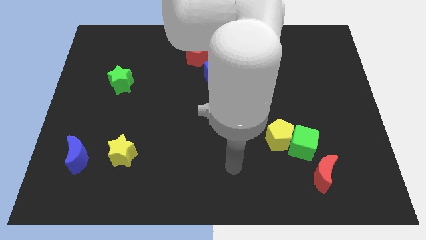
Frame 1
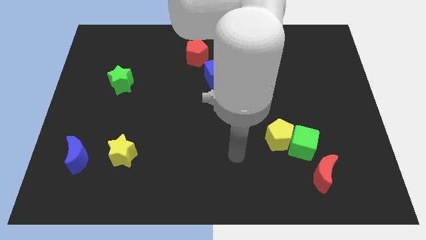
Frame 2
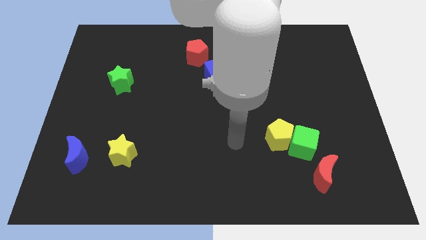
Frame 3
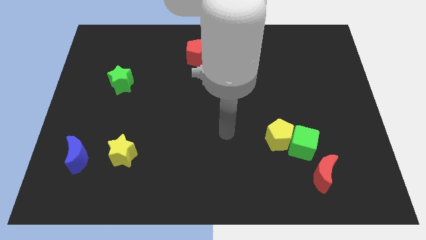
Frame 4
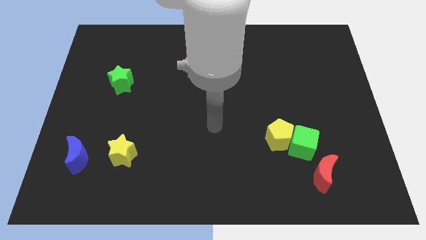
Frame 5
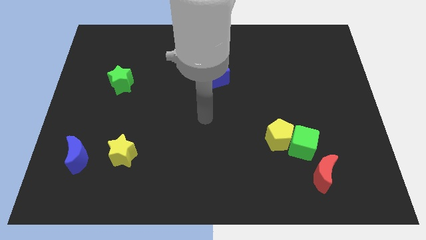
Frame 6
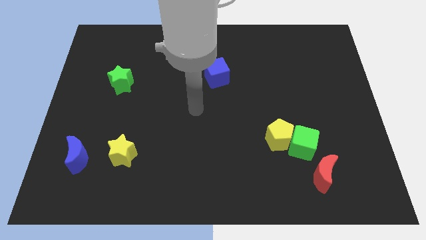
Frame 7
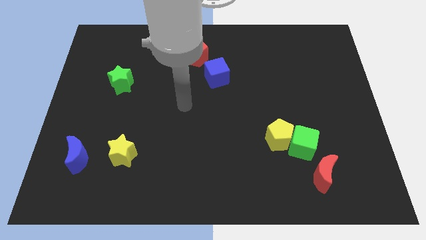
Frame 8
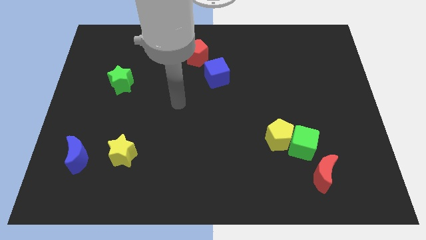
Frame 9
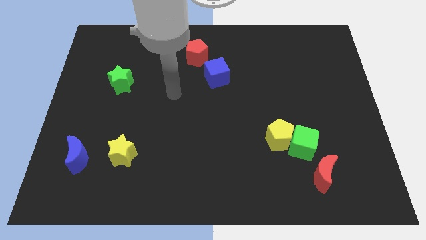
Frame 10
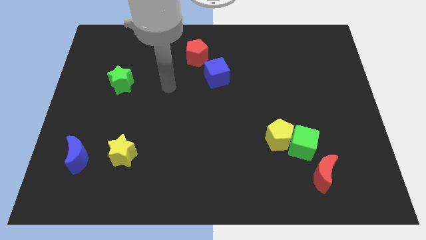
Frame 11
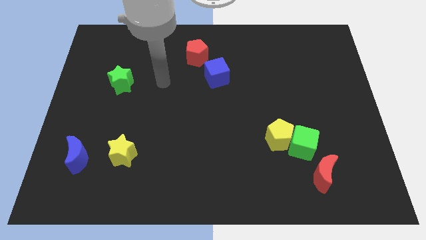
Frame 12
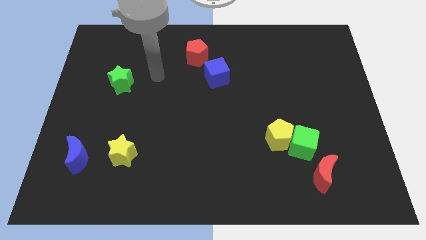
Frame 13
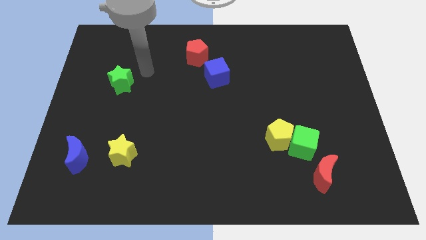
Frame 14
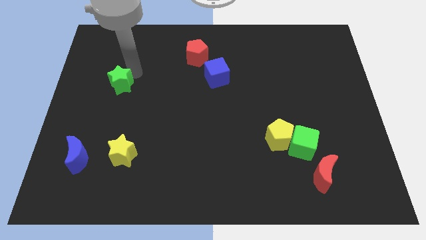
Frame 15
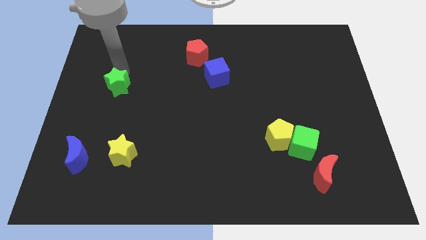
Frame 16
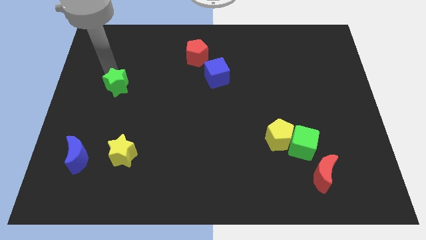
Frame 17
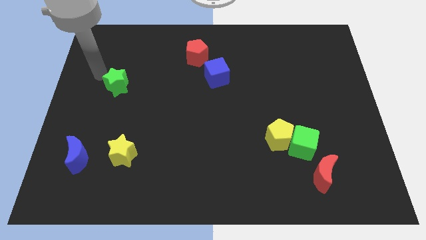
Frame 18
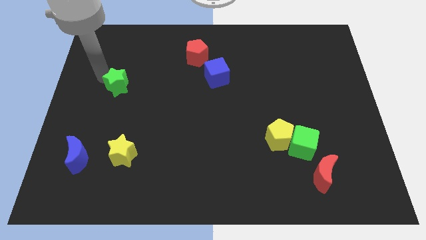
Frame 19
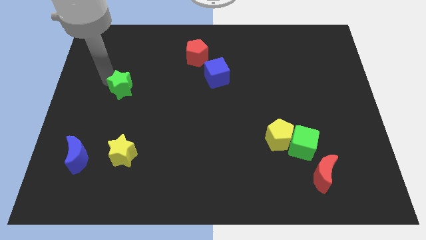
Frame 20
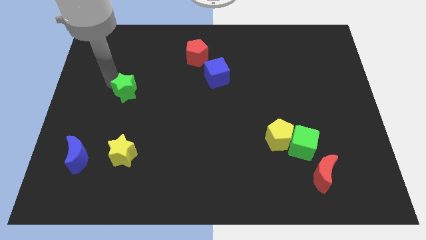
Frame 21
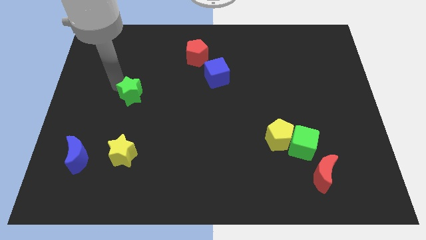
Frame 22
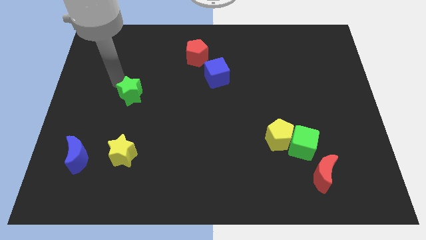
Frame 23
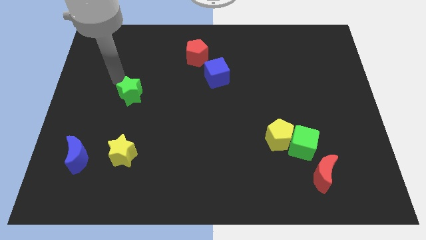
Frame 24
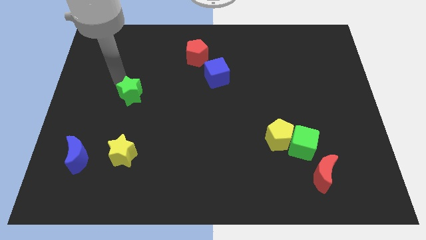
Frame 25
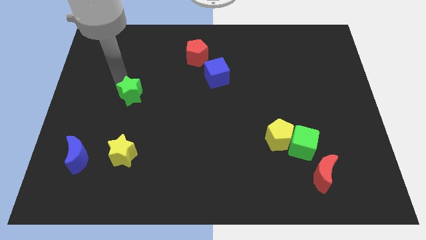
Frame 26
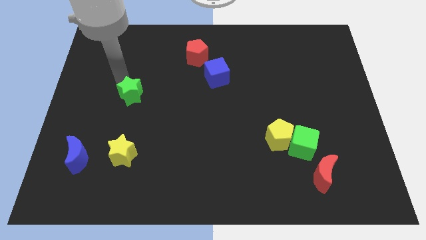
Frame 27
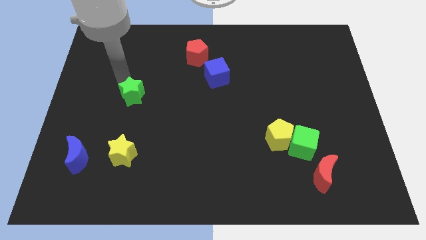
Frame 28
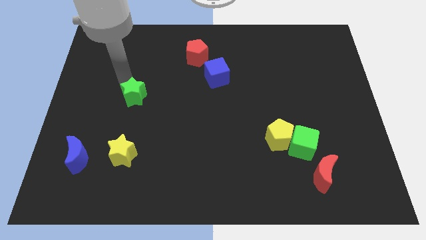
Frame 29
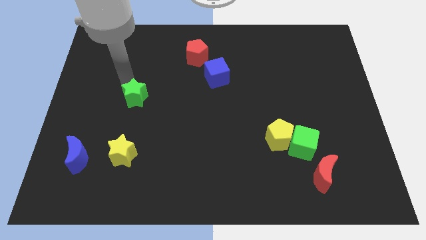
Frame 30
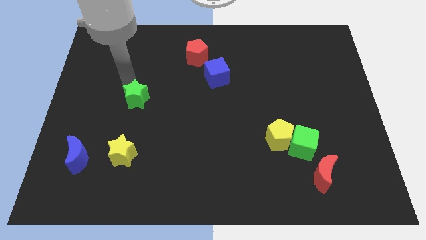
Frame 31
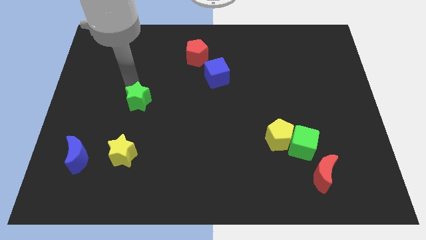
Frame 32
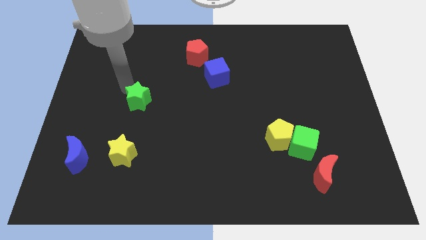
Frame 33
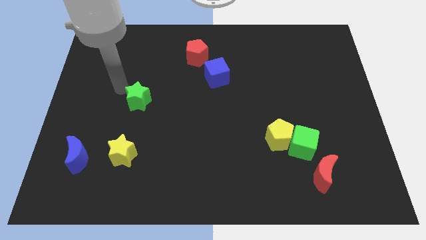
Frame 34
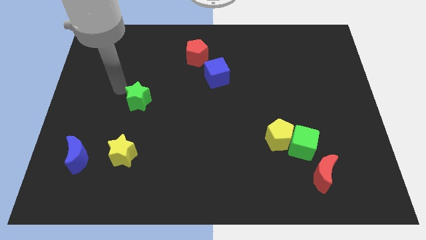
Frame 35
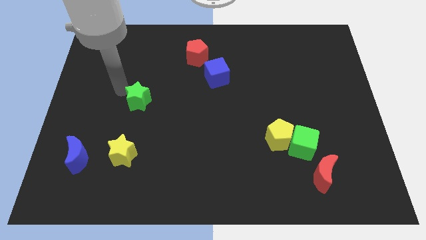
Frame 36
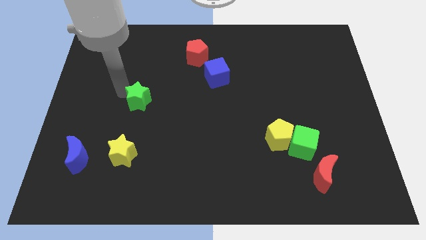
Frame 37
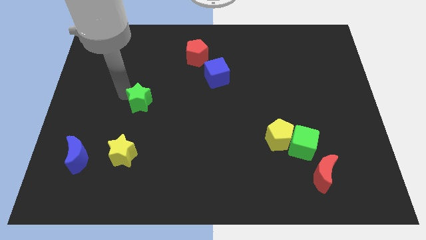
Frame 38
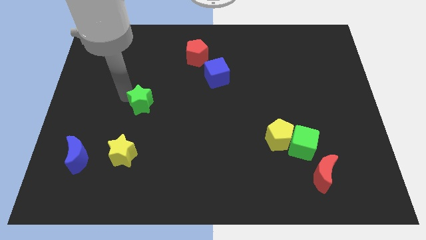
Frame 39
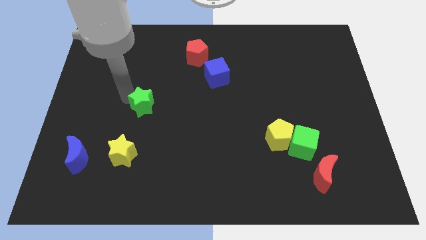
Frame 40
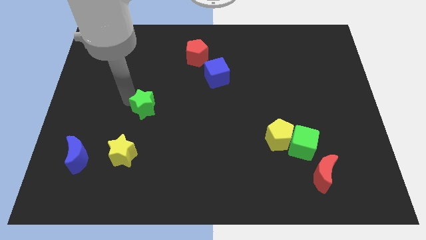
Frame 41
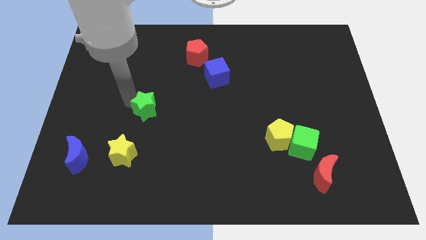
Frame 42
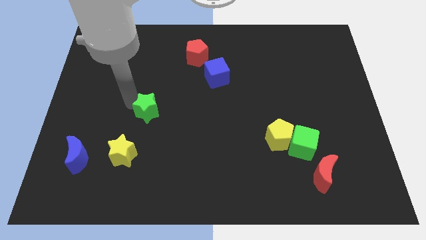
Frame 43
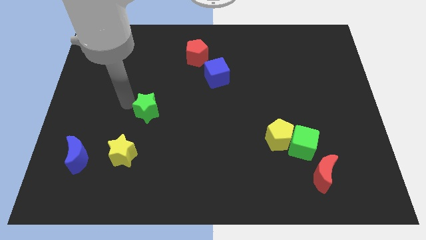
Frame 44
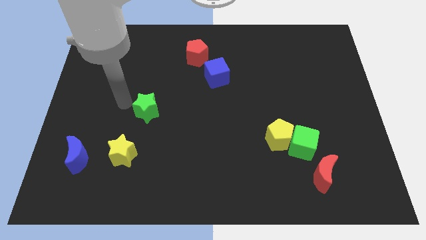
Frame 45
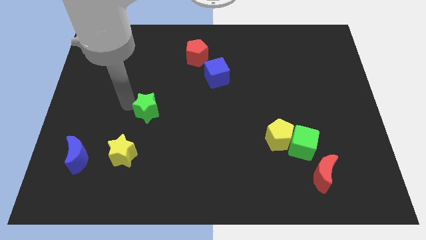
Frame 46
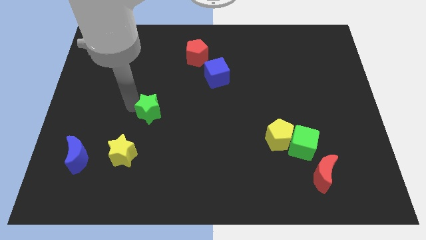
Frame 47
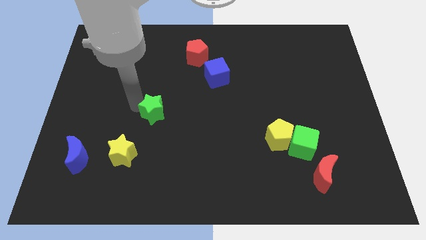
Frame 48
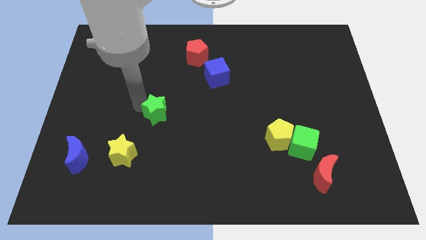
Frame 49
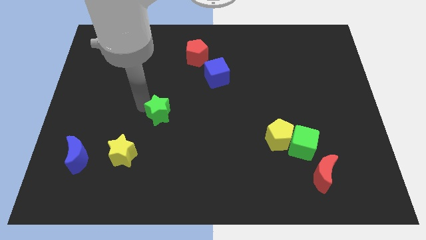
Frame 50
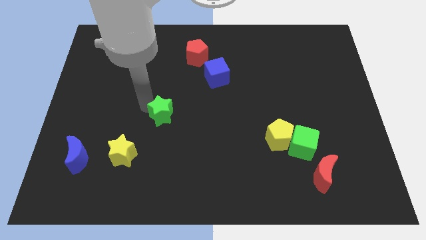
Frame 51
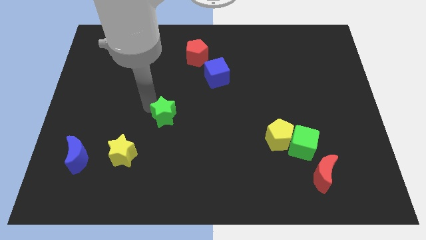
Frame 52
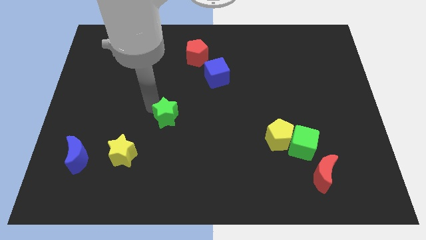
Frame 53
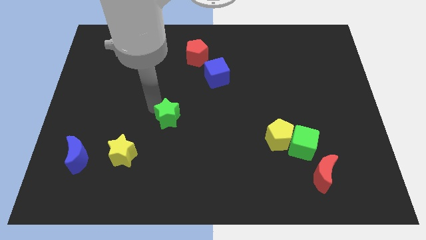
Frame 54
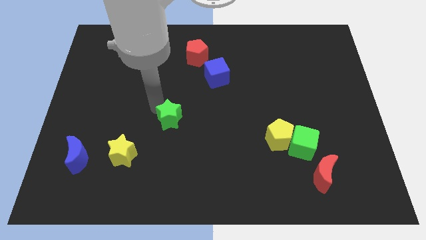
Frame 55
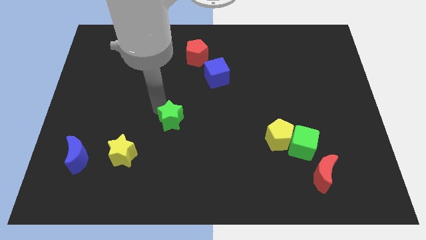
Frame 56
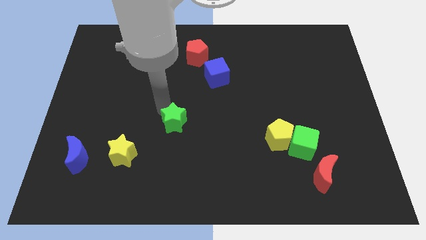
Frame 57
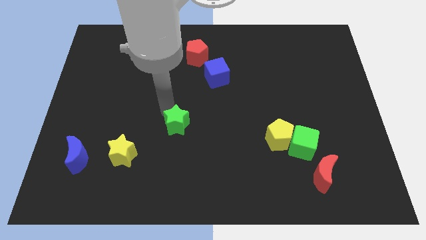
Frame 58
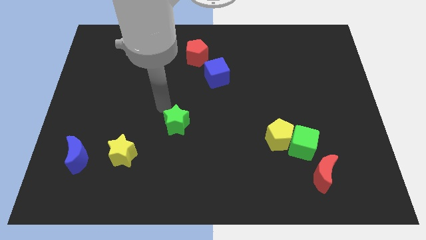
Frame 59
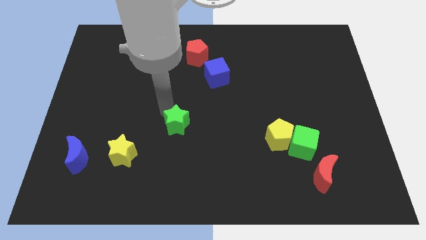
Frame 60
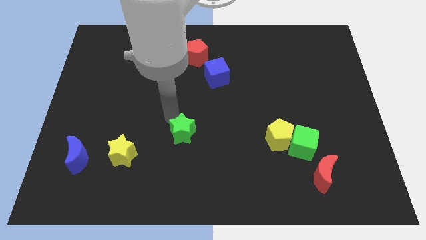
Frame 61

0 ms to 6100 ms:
slide the green star down and then to the right

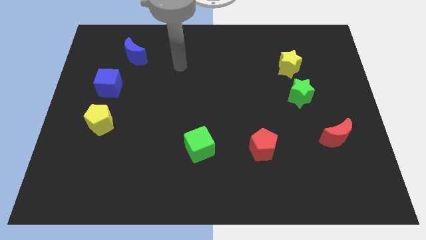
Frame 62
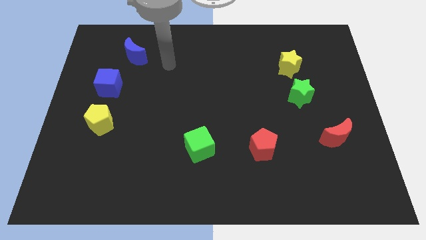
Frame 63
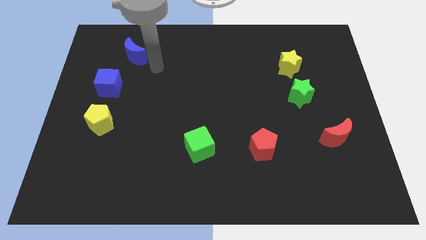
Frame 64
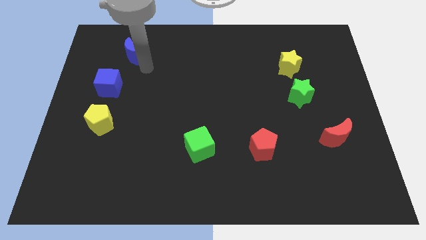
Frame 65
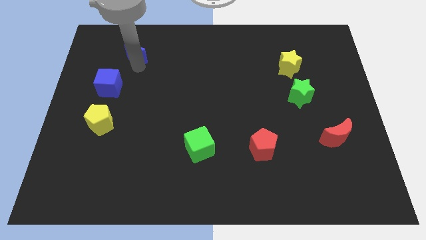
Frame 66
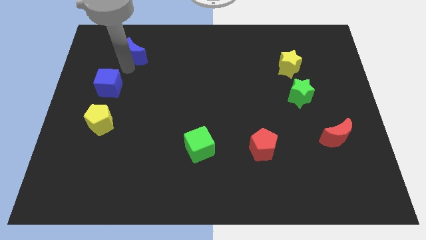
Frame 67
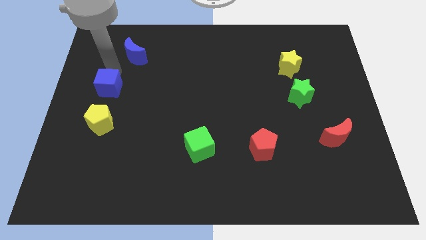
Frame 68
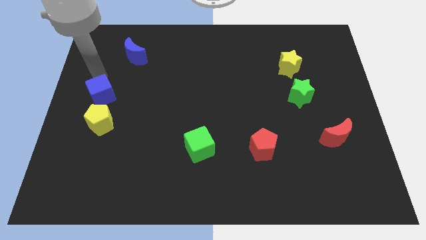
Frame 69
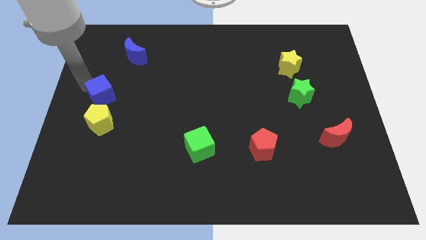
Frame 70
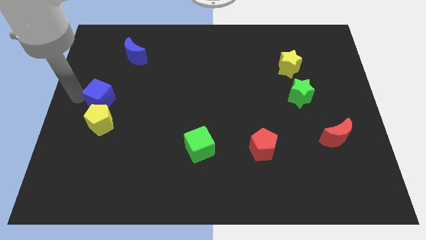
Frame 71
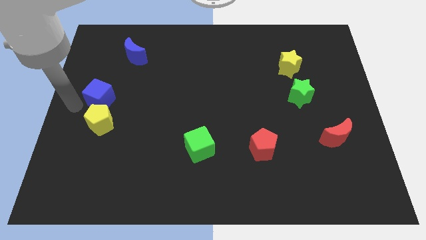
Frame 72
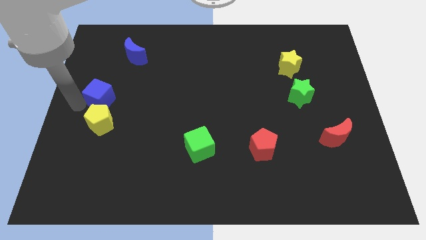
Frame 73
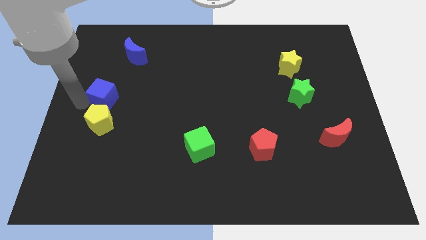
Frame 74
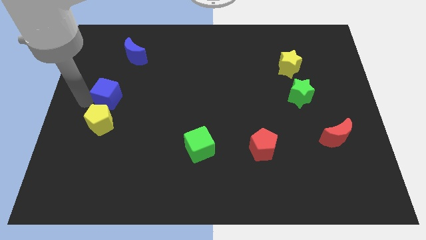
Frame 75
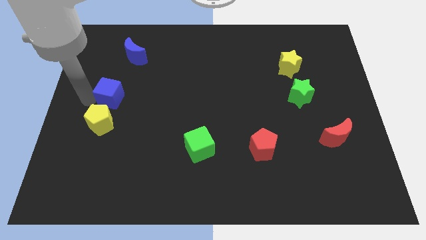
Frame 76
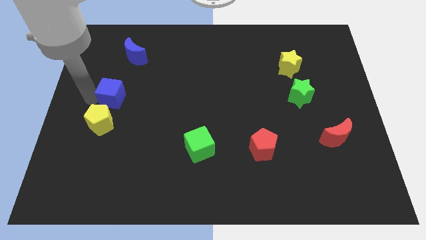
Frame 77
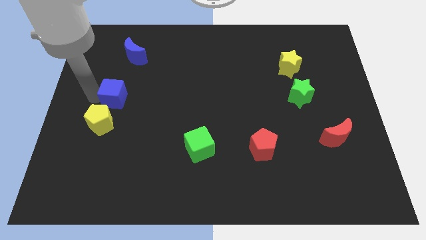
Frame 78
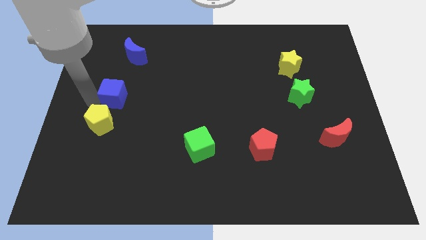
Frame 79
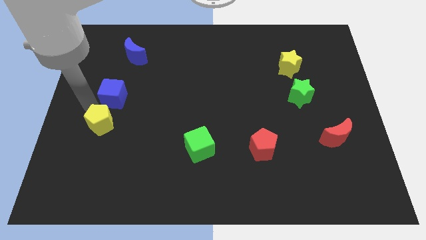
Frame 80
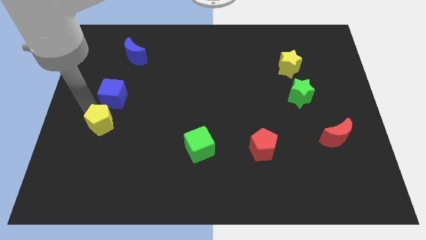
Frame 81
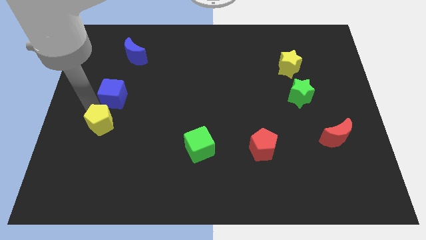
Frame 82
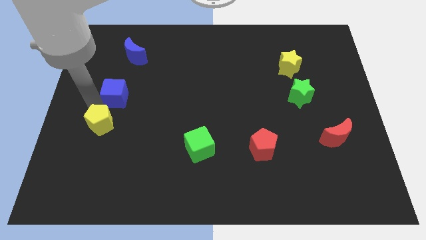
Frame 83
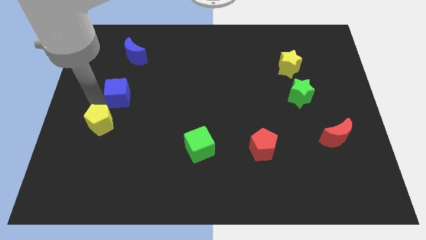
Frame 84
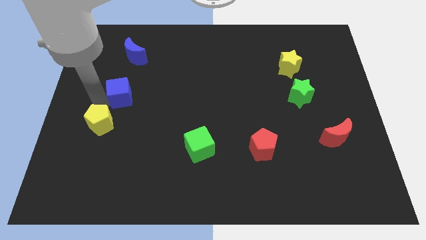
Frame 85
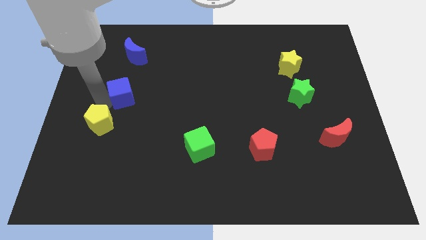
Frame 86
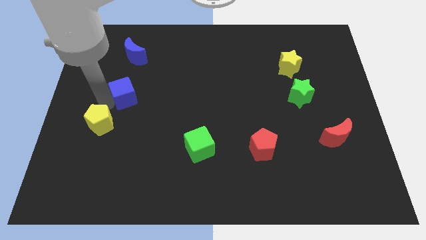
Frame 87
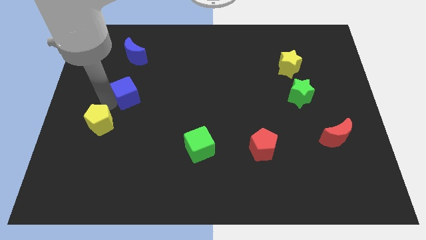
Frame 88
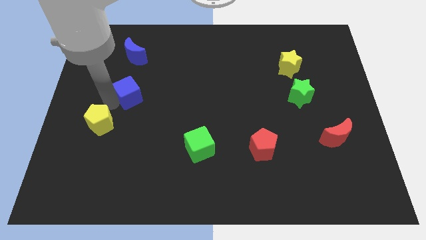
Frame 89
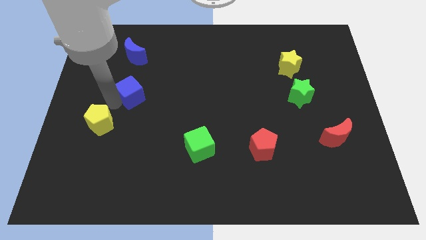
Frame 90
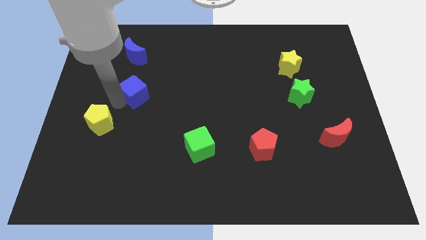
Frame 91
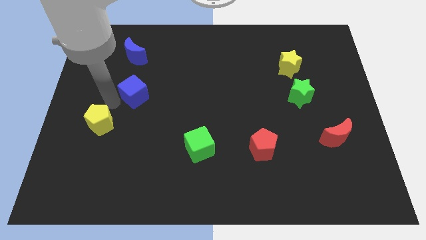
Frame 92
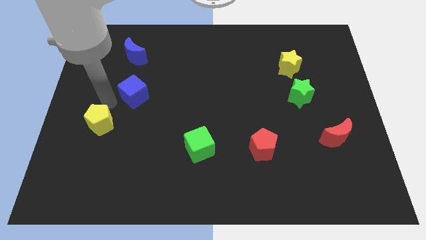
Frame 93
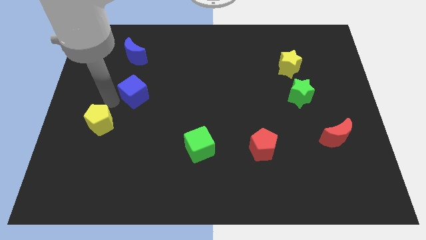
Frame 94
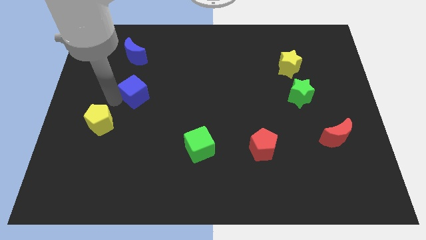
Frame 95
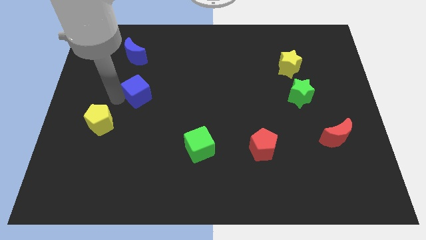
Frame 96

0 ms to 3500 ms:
slightly slide the blue cube right
